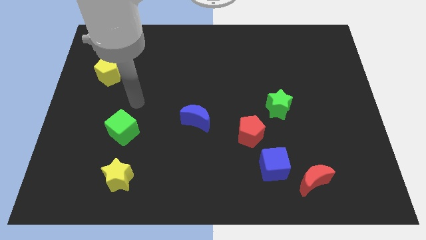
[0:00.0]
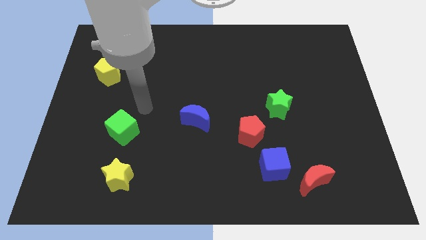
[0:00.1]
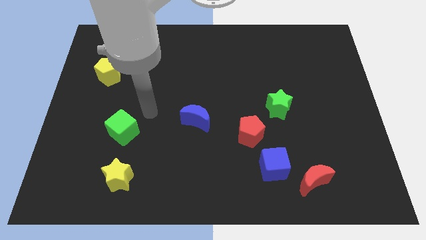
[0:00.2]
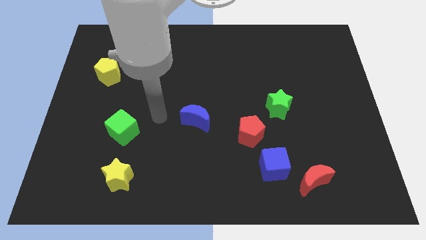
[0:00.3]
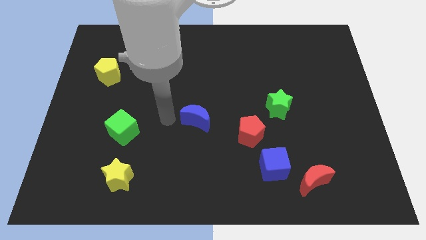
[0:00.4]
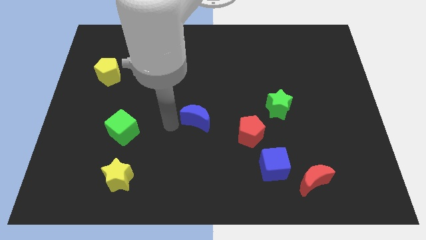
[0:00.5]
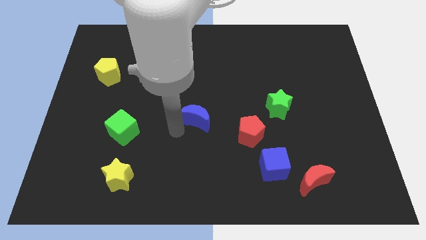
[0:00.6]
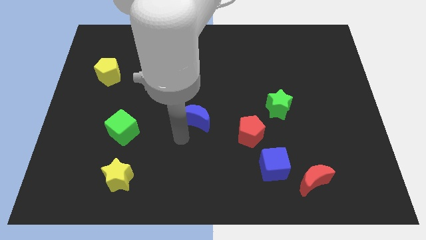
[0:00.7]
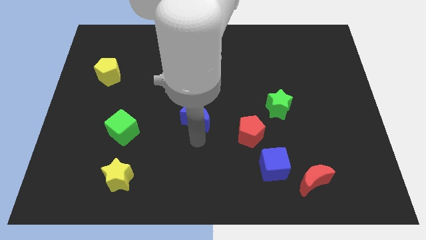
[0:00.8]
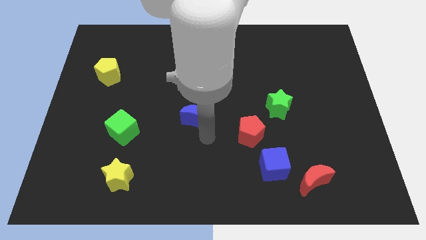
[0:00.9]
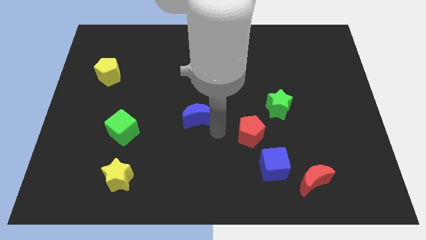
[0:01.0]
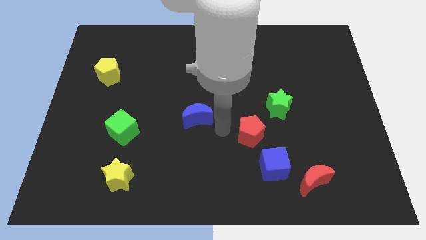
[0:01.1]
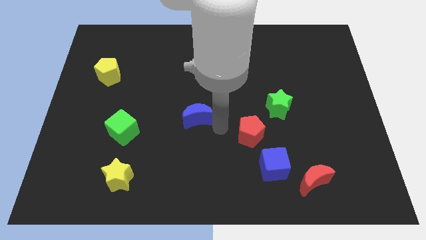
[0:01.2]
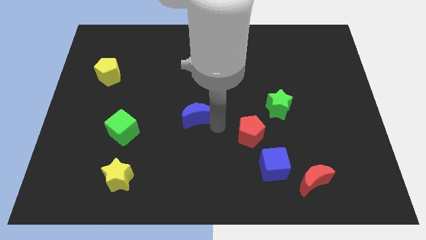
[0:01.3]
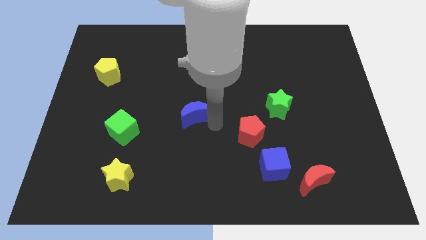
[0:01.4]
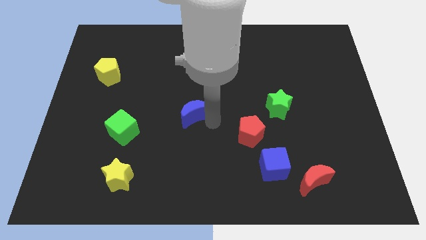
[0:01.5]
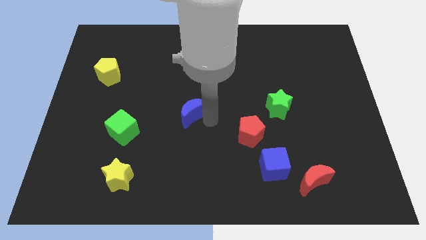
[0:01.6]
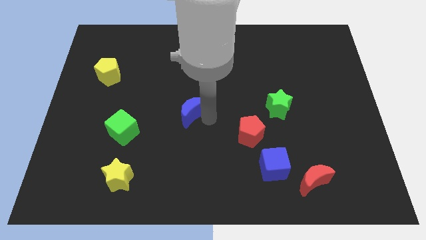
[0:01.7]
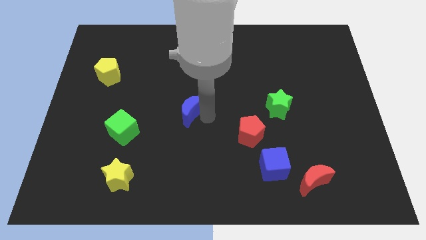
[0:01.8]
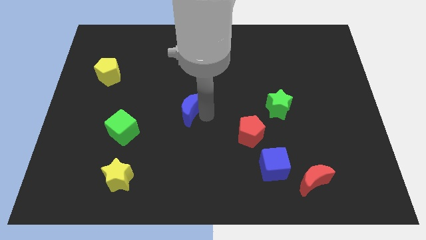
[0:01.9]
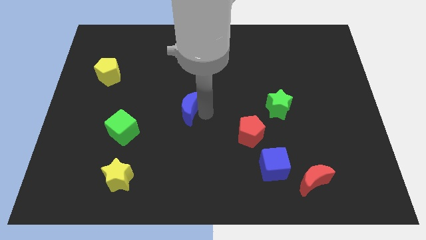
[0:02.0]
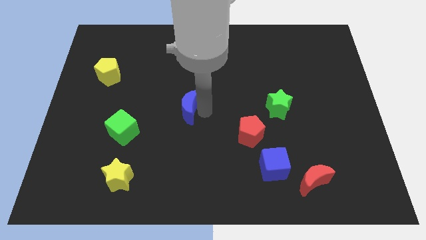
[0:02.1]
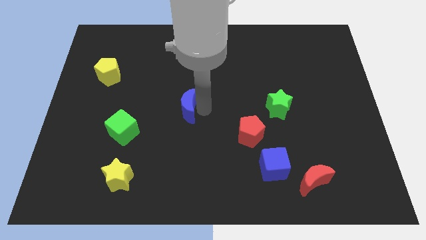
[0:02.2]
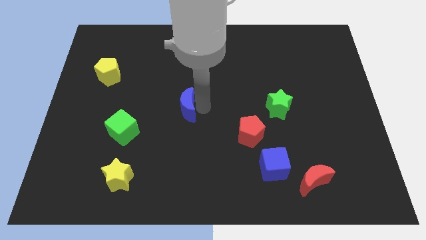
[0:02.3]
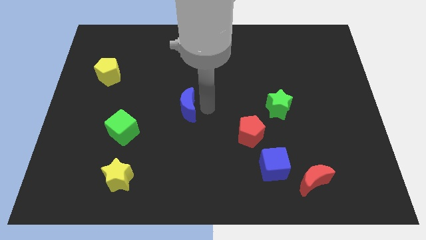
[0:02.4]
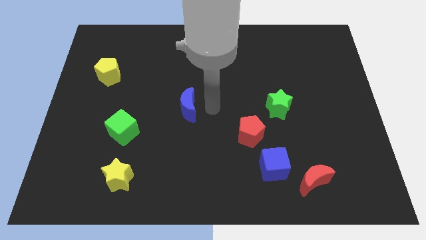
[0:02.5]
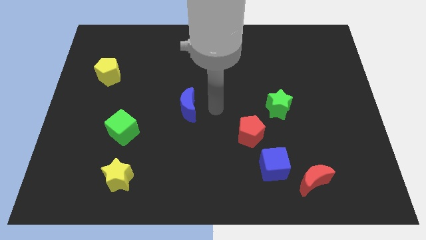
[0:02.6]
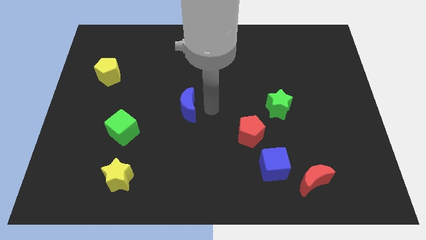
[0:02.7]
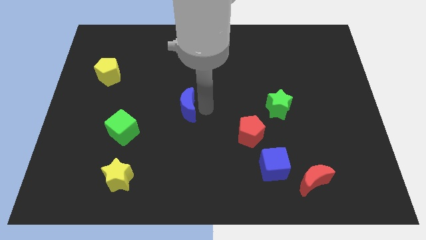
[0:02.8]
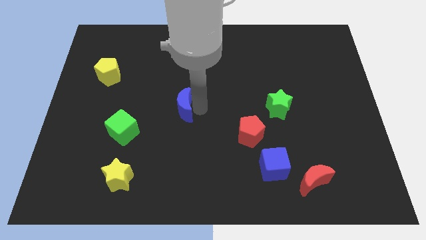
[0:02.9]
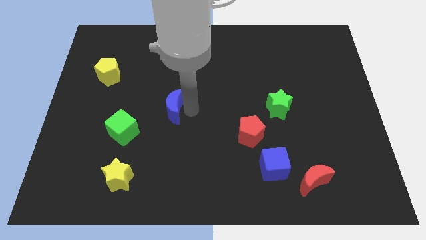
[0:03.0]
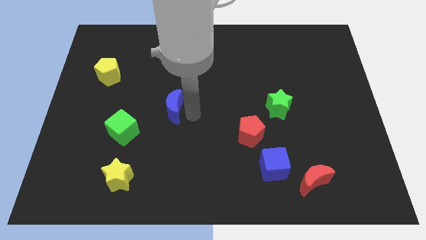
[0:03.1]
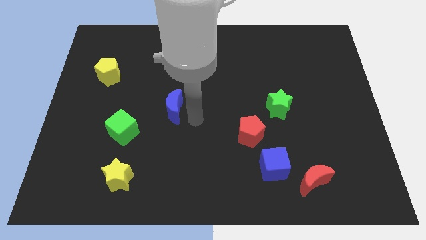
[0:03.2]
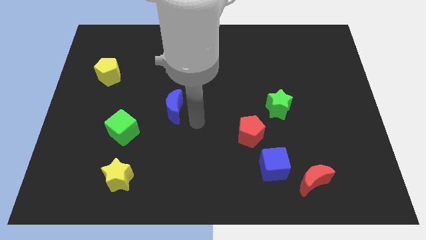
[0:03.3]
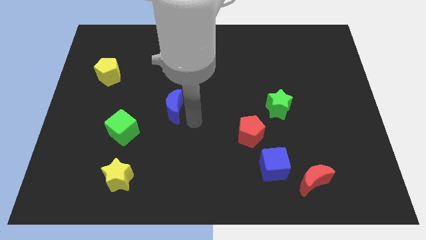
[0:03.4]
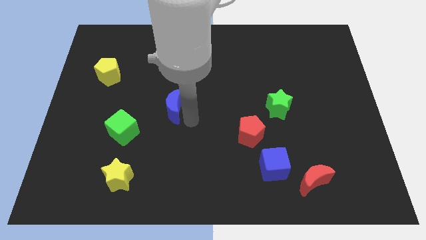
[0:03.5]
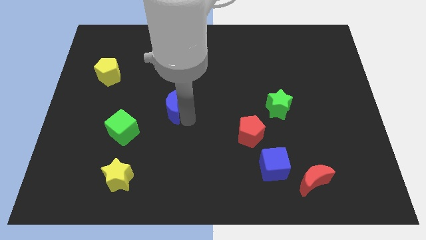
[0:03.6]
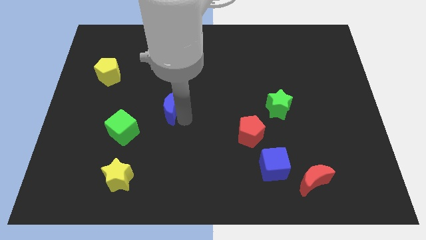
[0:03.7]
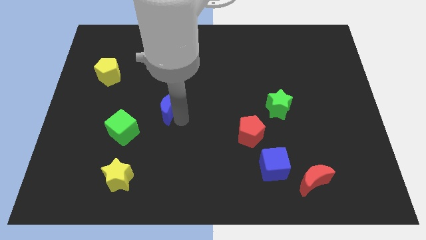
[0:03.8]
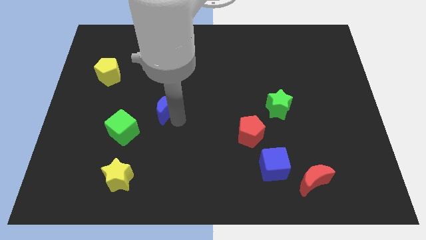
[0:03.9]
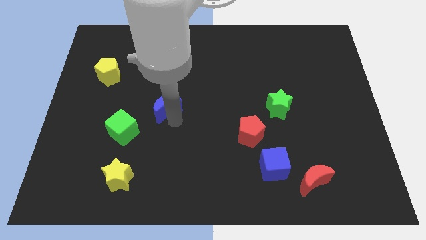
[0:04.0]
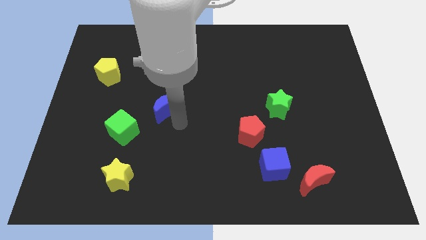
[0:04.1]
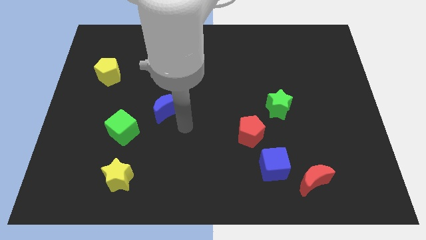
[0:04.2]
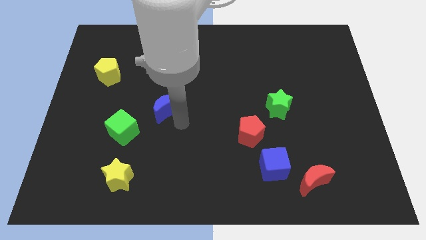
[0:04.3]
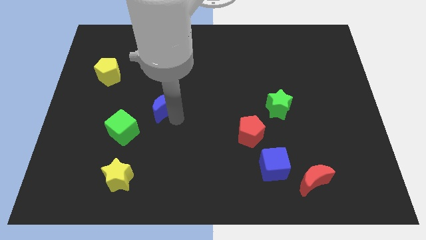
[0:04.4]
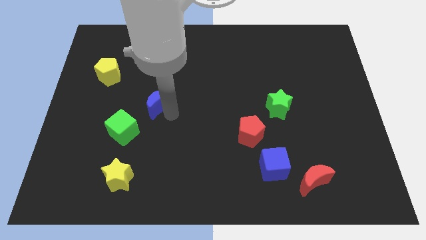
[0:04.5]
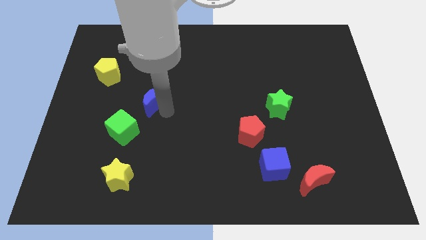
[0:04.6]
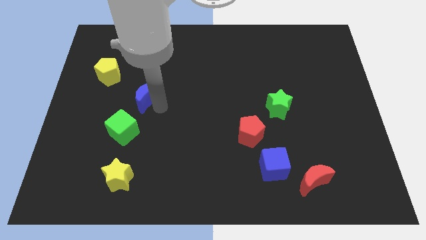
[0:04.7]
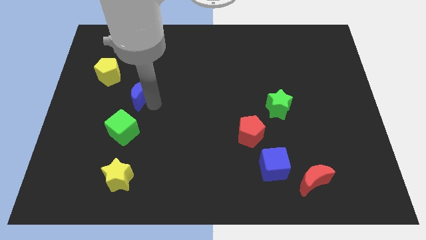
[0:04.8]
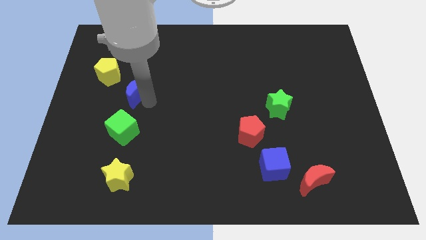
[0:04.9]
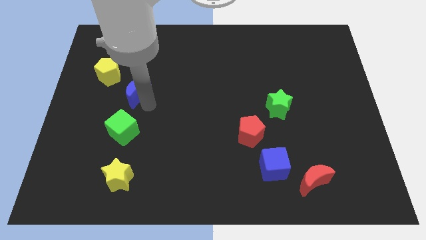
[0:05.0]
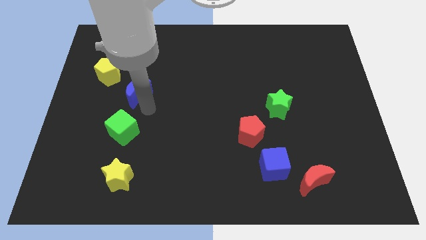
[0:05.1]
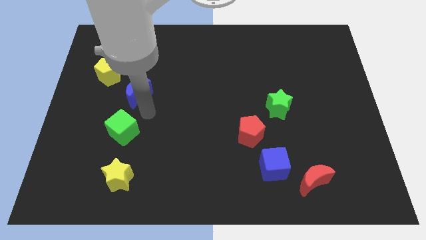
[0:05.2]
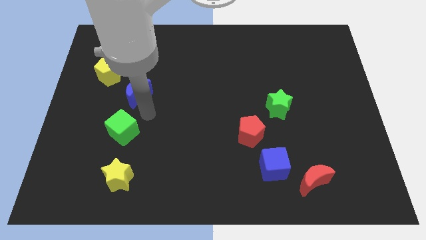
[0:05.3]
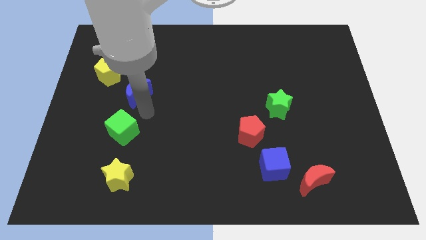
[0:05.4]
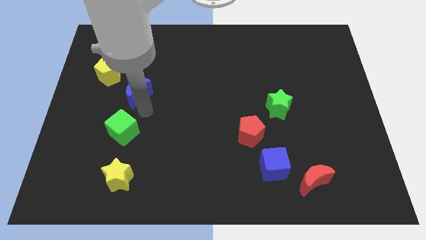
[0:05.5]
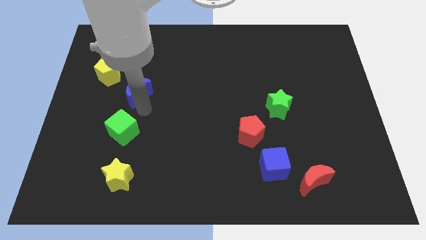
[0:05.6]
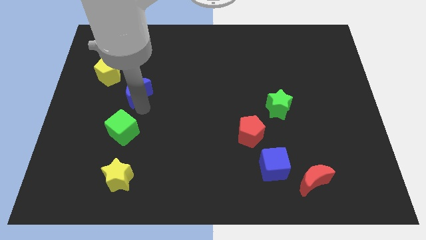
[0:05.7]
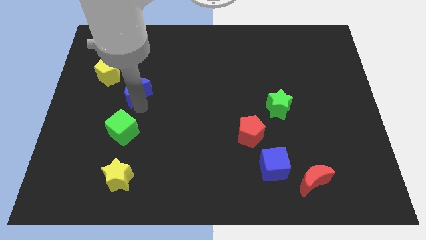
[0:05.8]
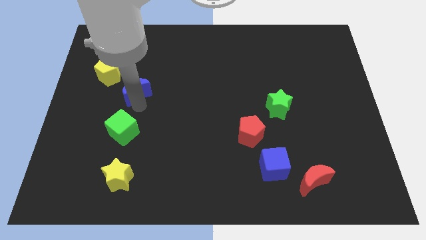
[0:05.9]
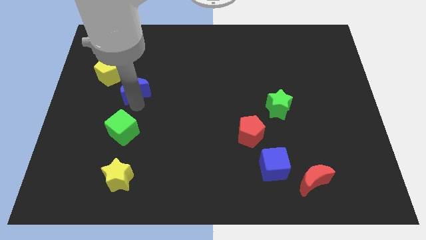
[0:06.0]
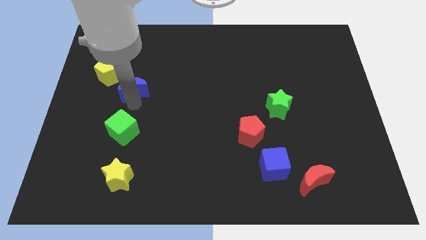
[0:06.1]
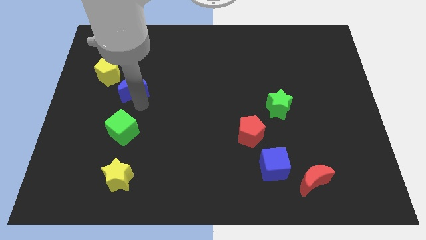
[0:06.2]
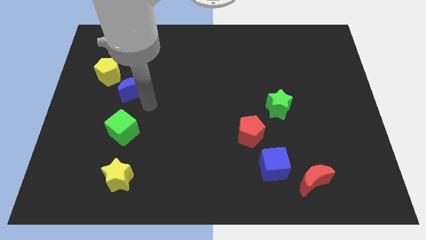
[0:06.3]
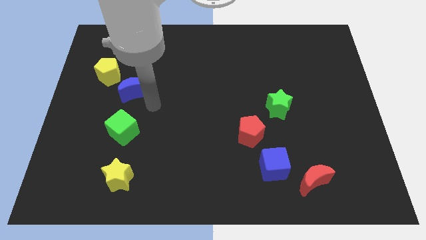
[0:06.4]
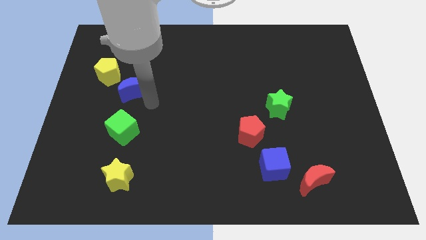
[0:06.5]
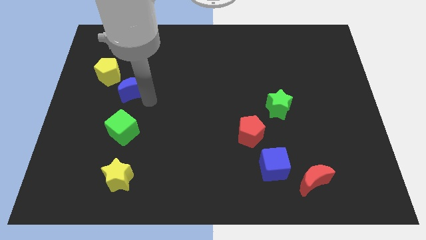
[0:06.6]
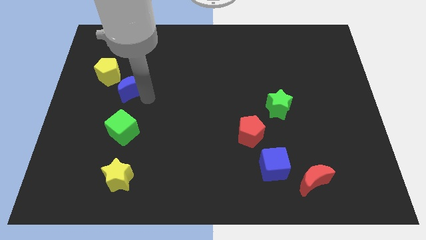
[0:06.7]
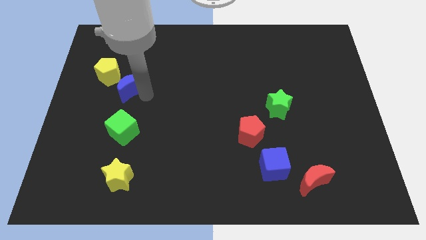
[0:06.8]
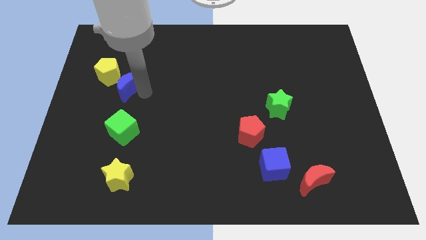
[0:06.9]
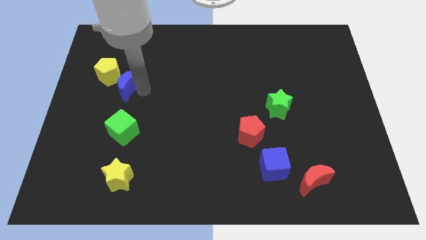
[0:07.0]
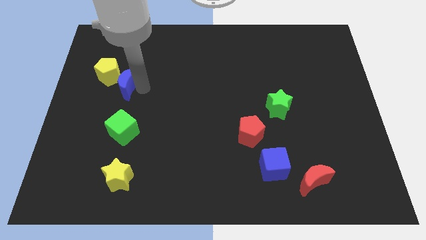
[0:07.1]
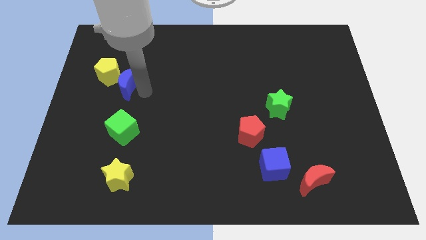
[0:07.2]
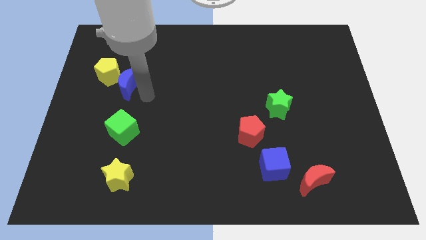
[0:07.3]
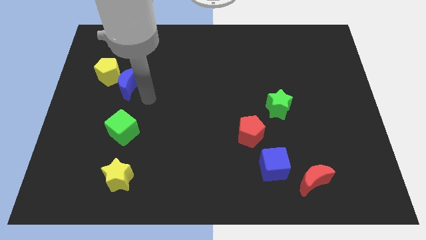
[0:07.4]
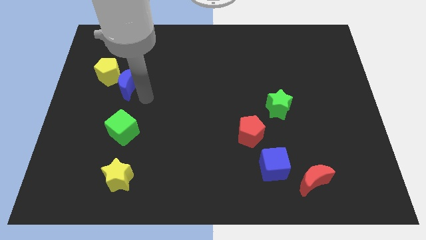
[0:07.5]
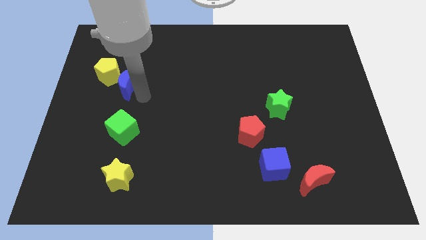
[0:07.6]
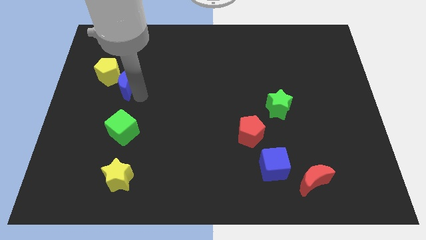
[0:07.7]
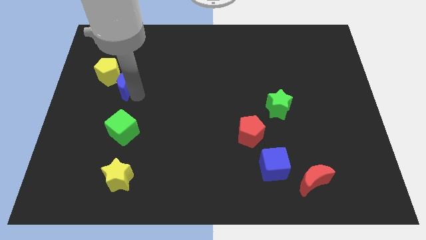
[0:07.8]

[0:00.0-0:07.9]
push the blue moon to the yellow pentagon
